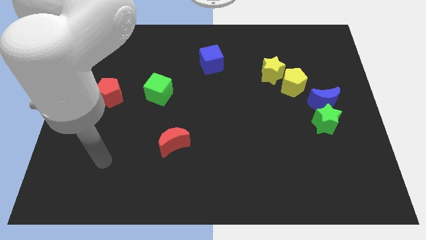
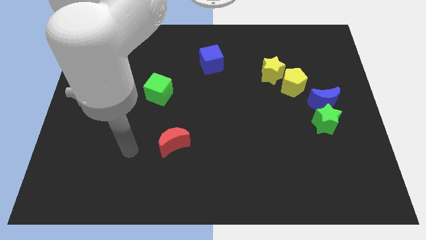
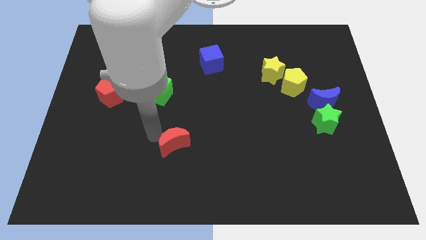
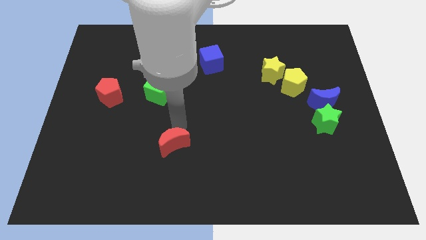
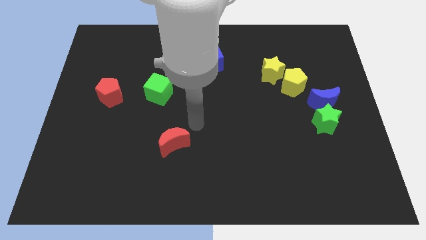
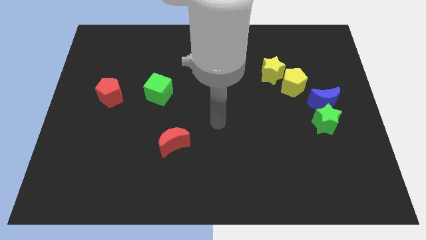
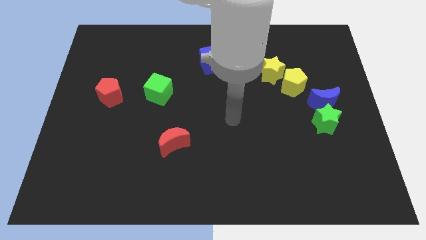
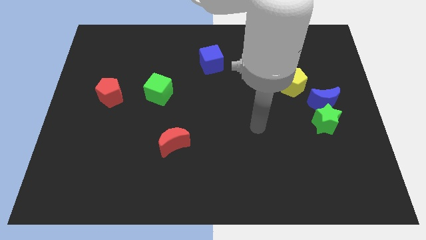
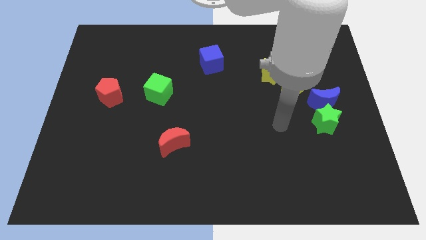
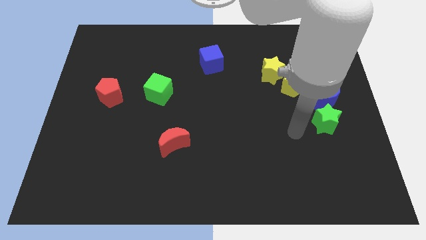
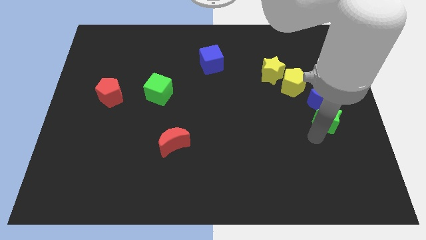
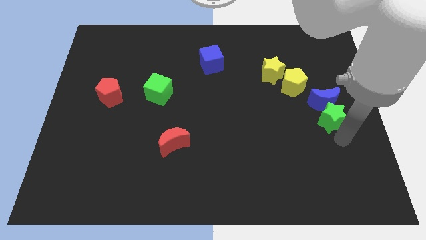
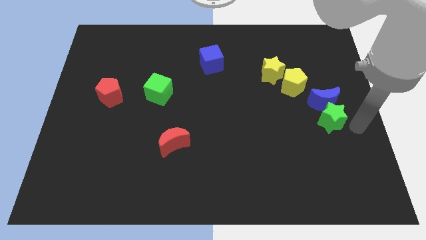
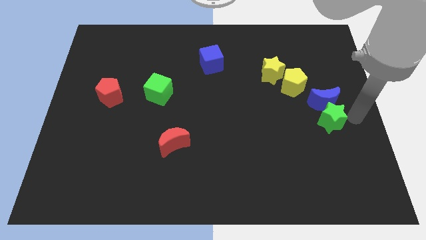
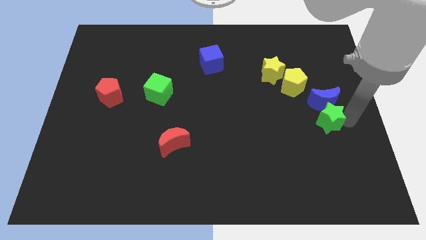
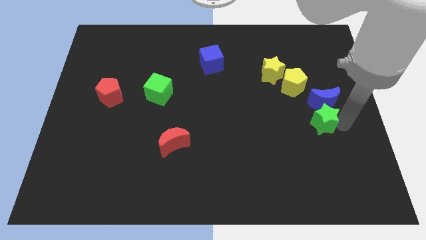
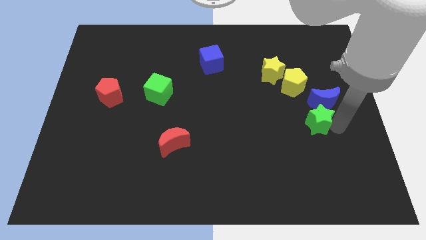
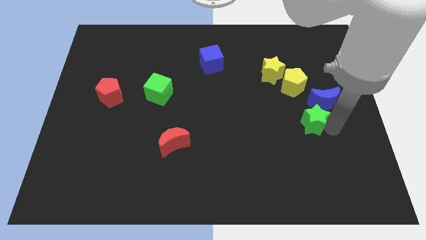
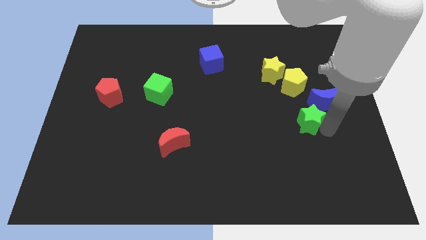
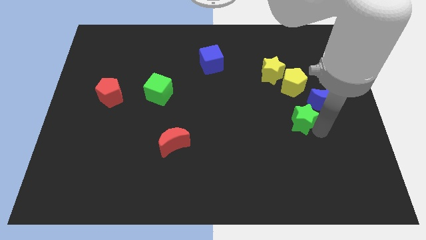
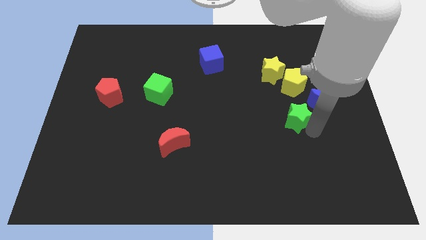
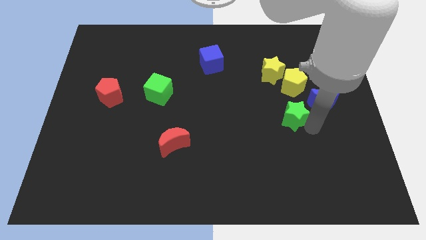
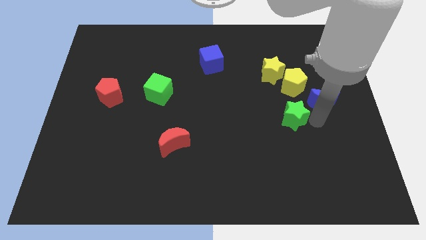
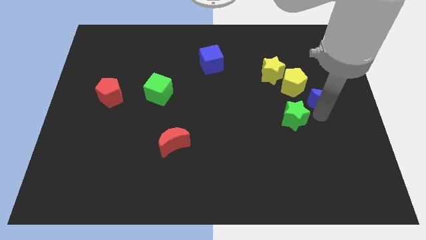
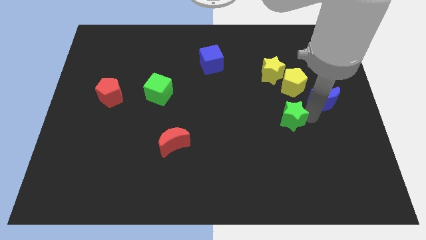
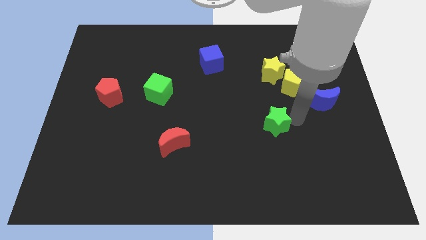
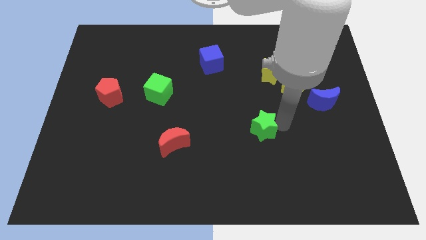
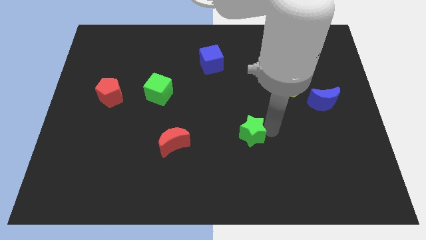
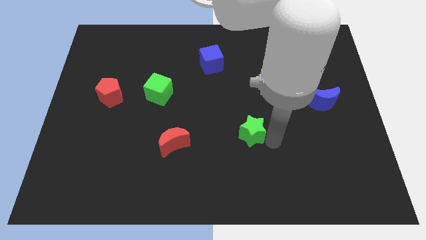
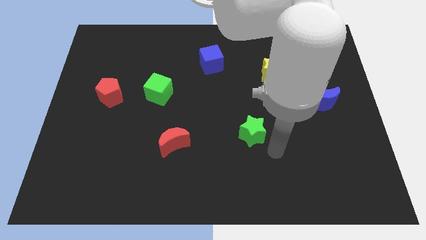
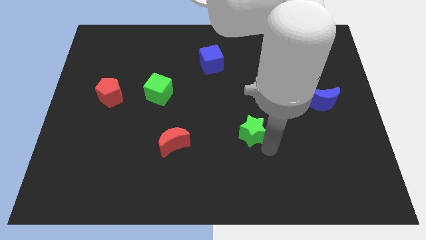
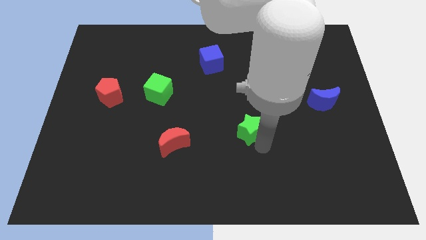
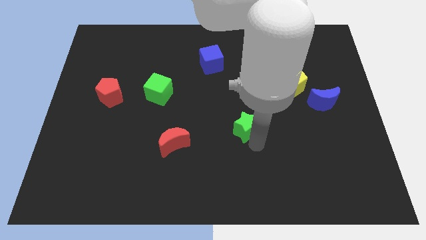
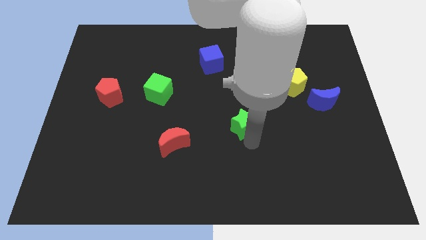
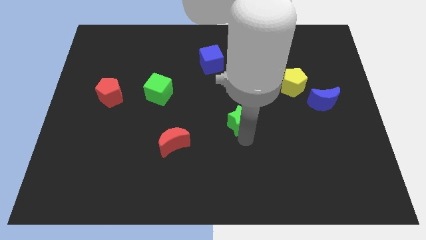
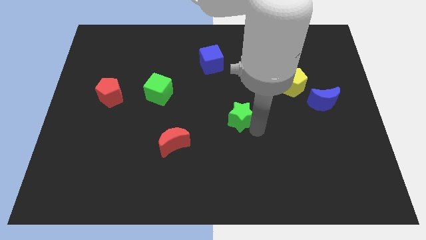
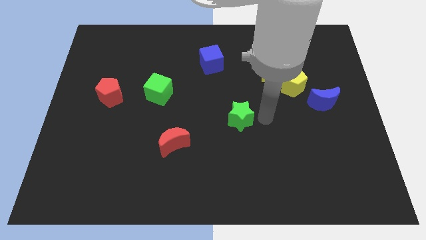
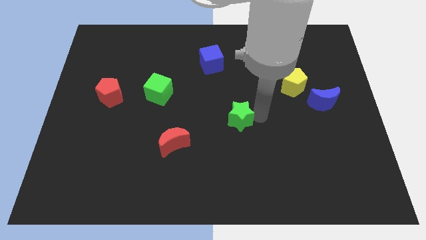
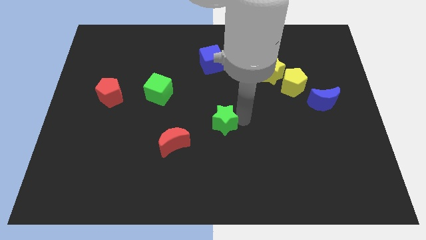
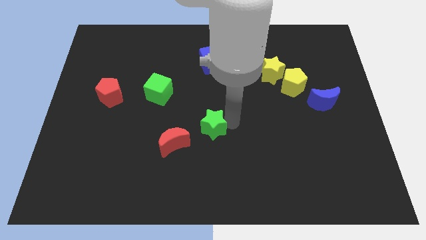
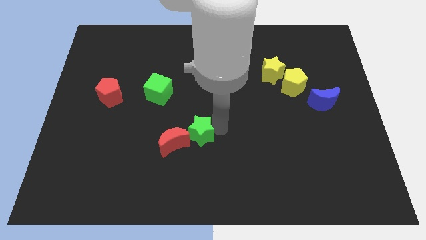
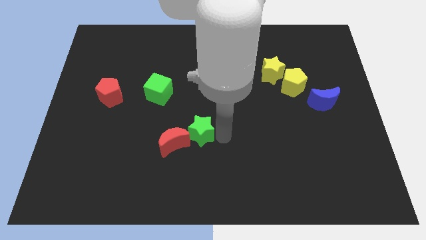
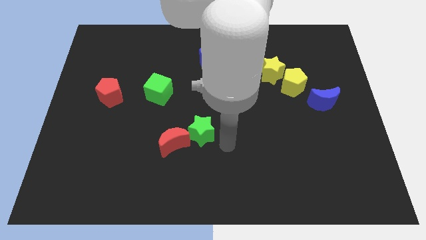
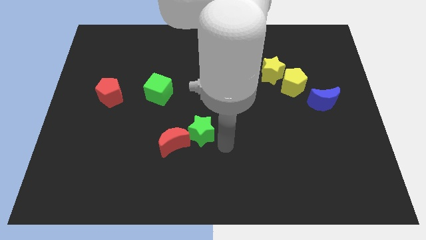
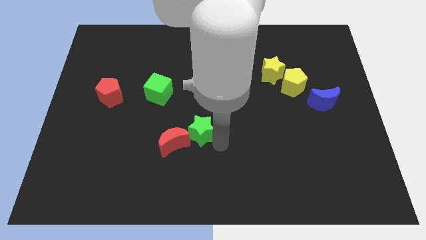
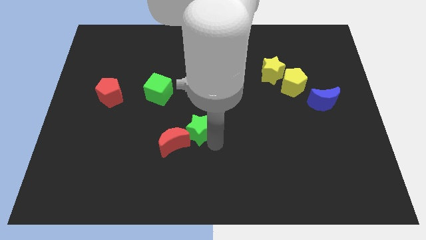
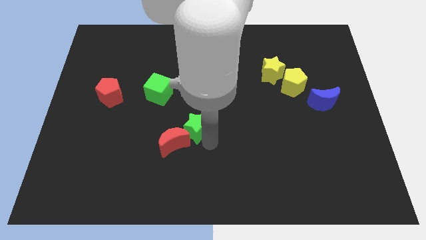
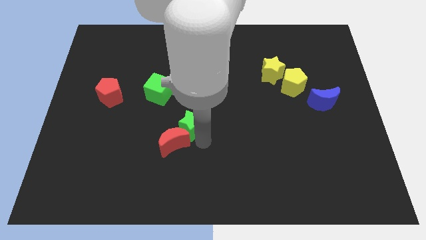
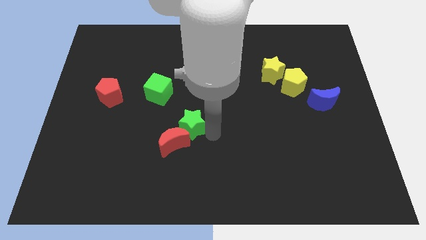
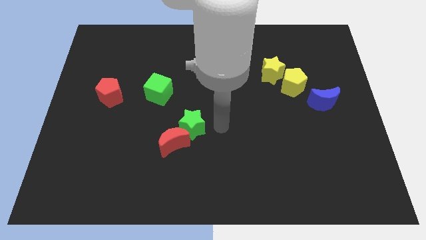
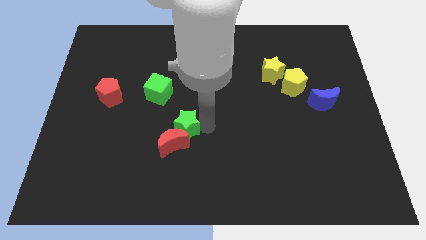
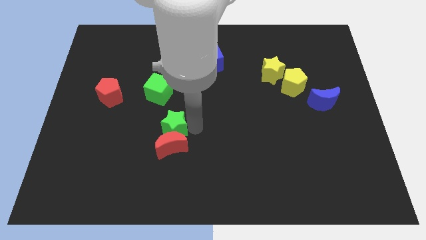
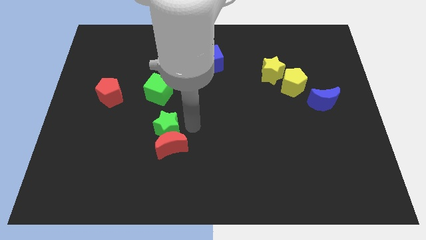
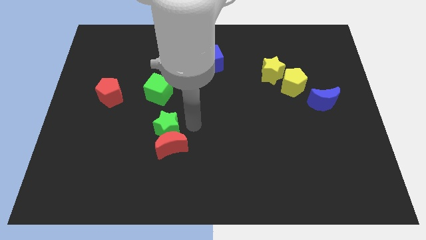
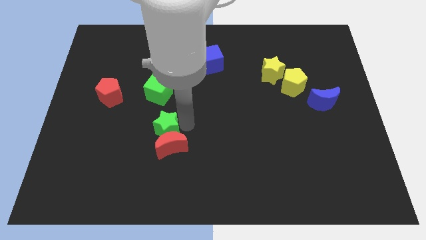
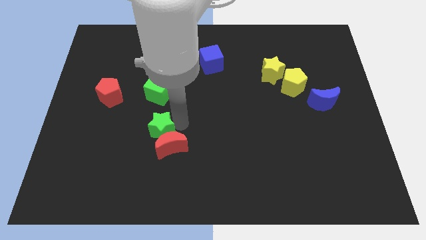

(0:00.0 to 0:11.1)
put the green star to the left of the red moon
